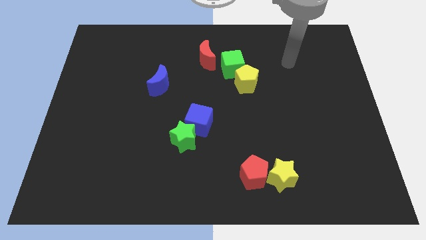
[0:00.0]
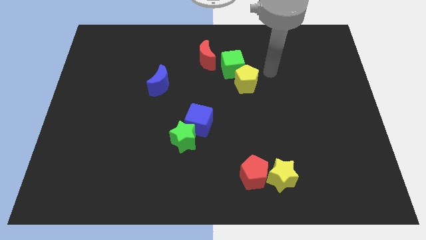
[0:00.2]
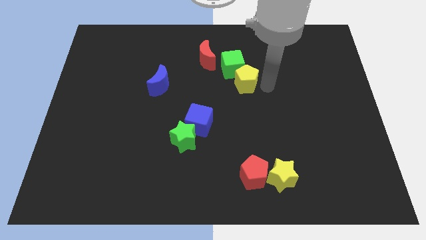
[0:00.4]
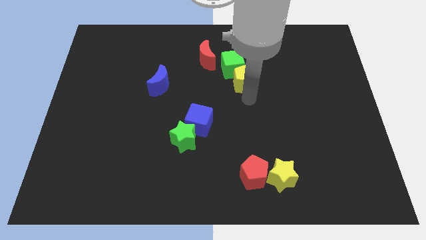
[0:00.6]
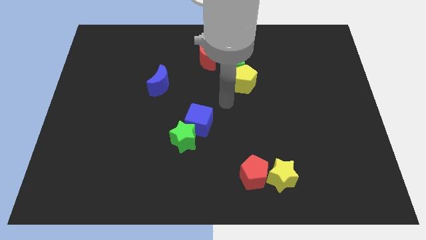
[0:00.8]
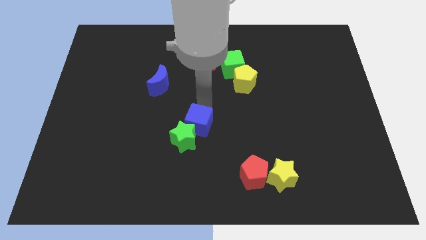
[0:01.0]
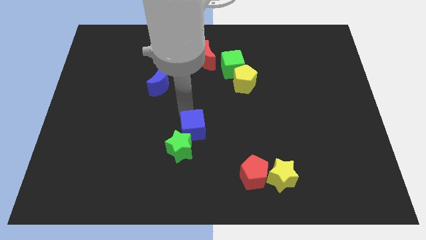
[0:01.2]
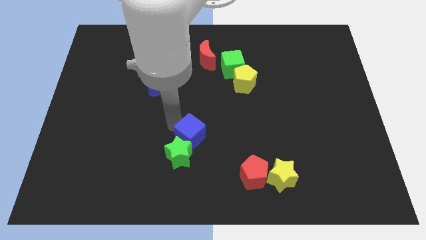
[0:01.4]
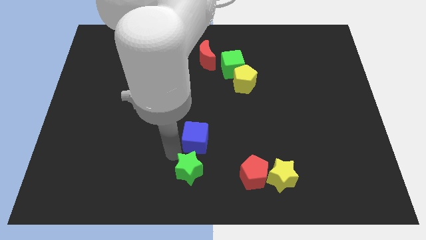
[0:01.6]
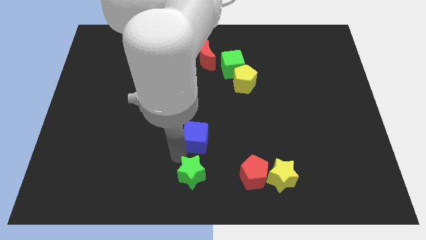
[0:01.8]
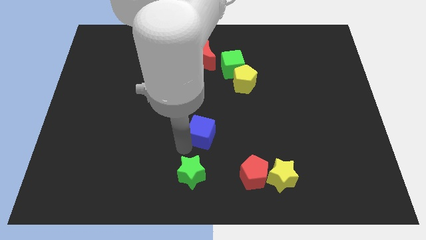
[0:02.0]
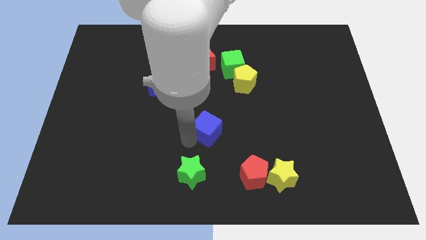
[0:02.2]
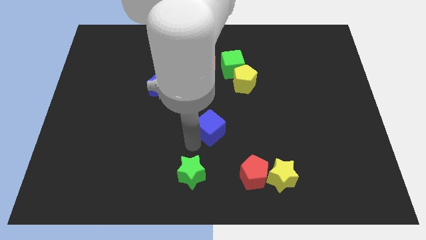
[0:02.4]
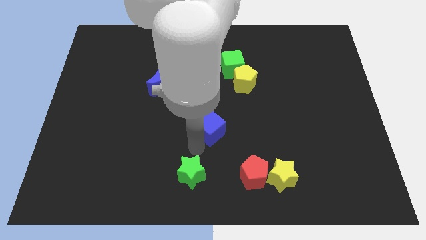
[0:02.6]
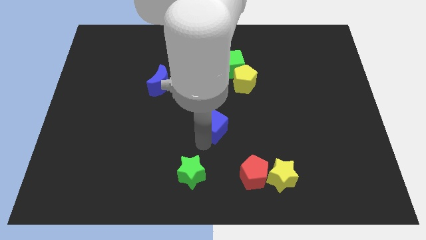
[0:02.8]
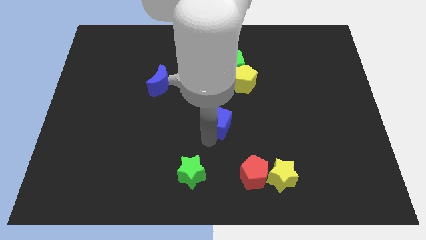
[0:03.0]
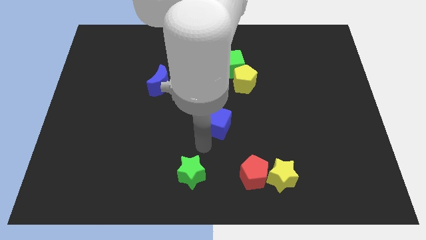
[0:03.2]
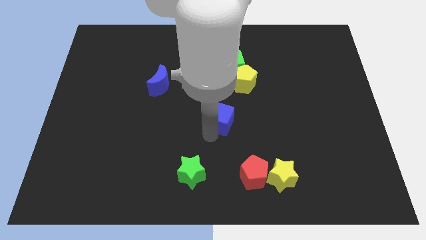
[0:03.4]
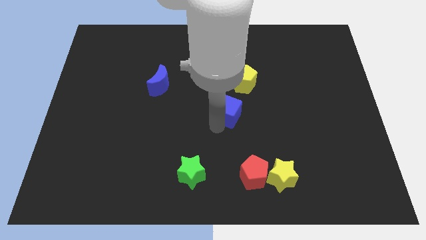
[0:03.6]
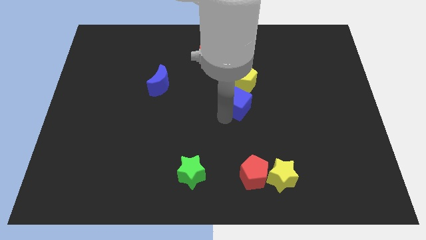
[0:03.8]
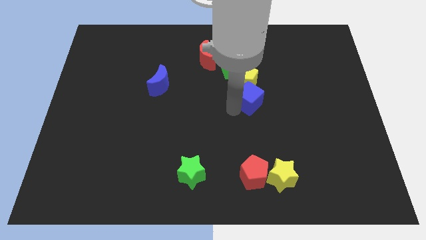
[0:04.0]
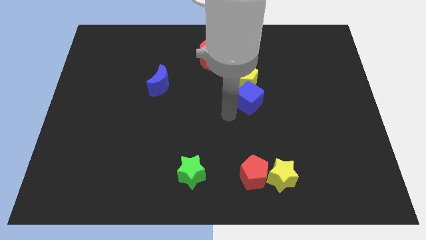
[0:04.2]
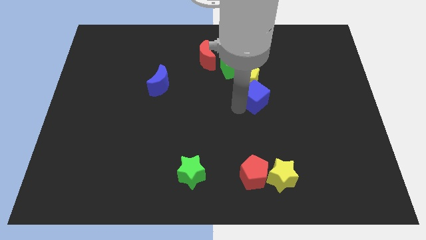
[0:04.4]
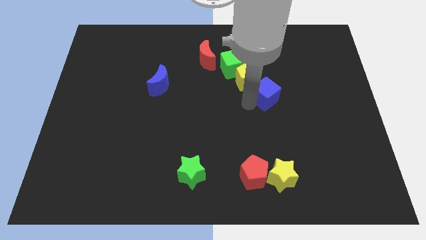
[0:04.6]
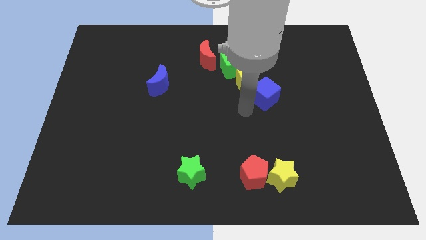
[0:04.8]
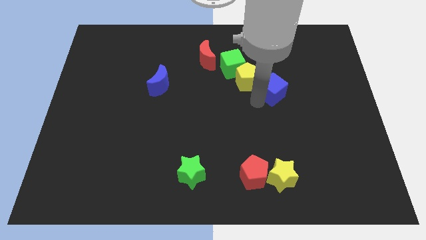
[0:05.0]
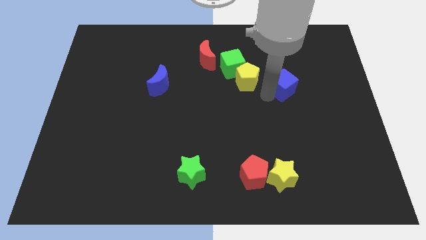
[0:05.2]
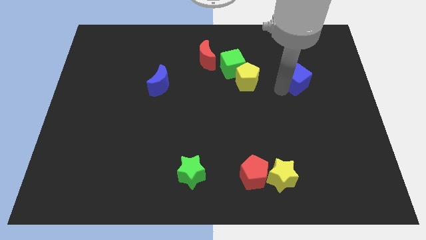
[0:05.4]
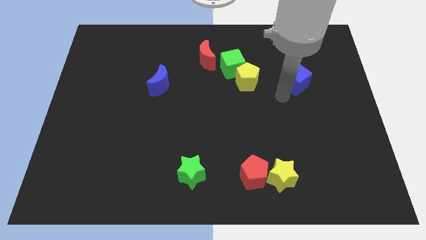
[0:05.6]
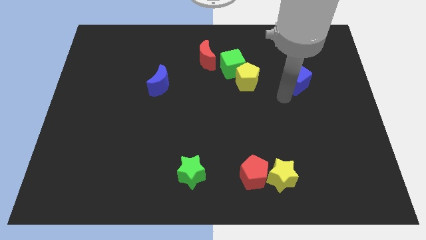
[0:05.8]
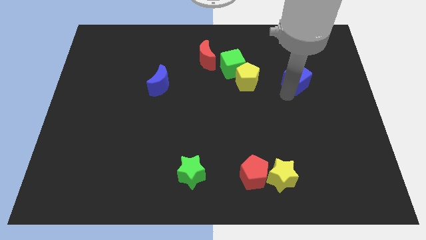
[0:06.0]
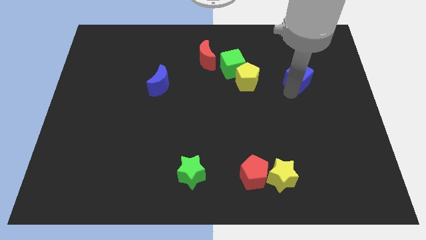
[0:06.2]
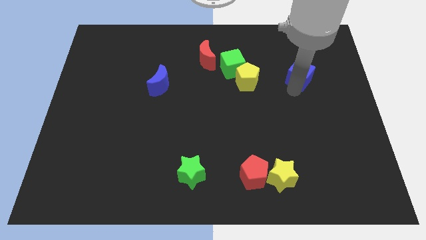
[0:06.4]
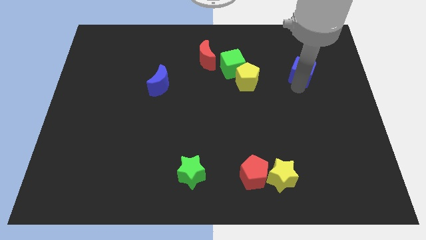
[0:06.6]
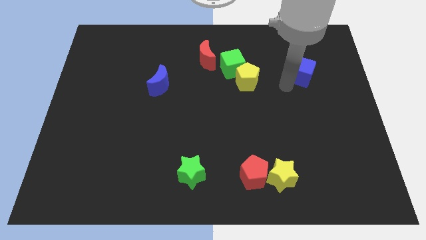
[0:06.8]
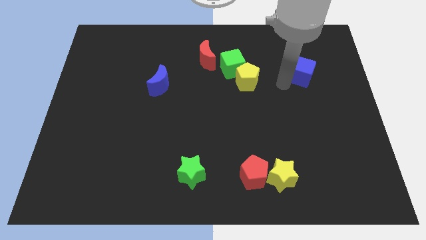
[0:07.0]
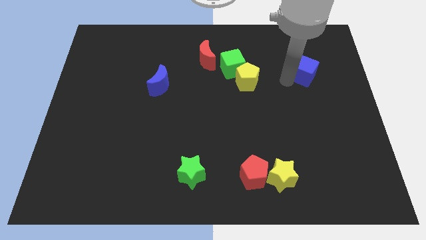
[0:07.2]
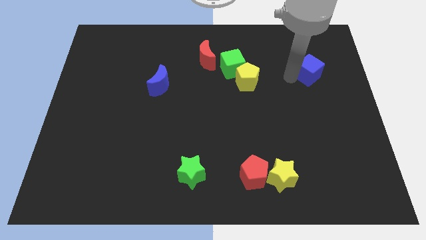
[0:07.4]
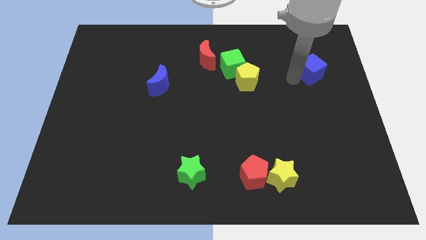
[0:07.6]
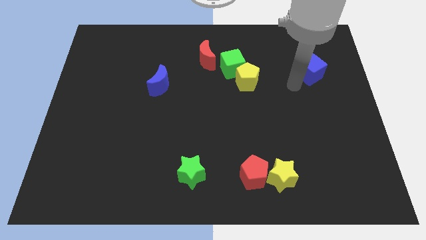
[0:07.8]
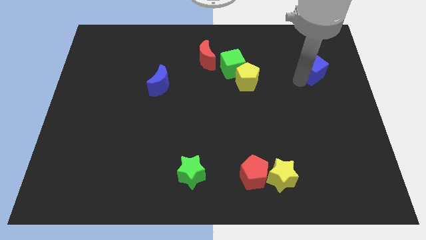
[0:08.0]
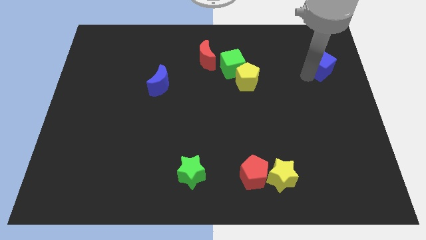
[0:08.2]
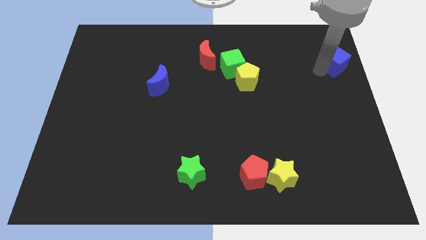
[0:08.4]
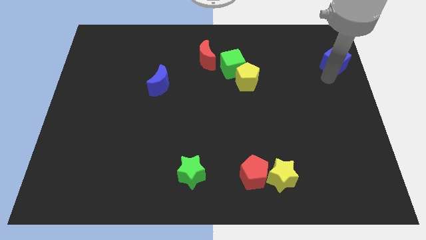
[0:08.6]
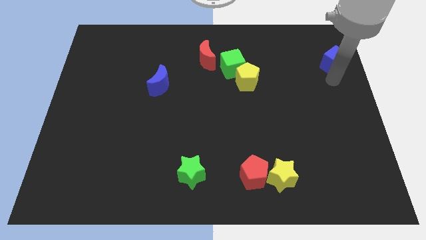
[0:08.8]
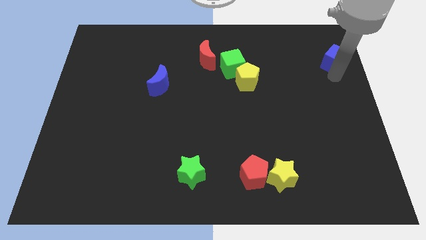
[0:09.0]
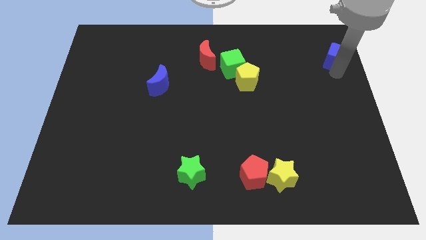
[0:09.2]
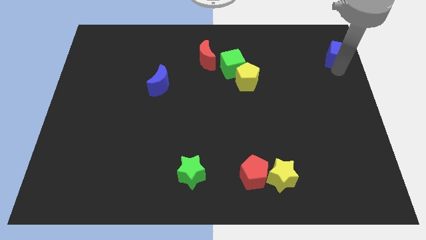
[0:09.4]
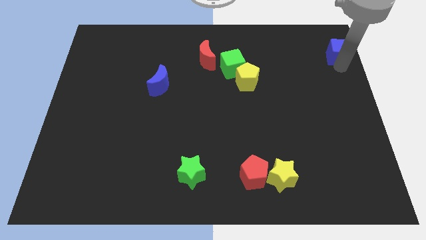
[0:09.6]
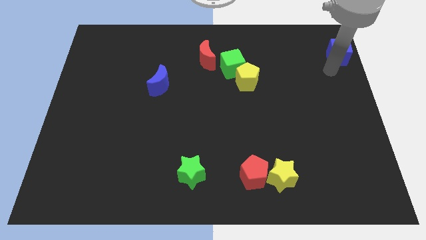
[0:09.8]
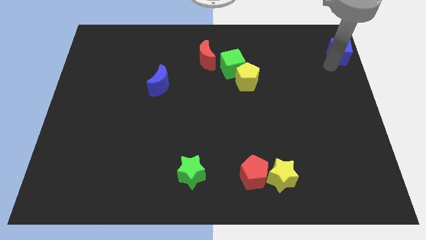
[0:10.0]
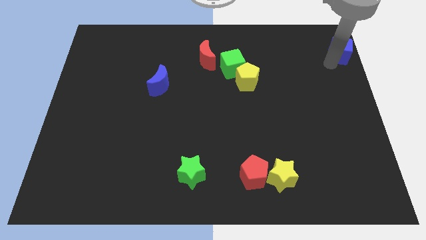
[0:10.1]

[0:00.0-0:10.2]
put the blue cube to the top right

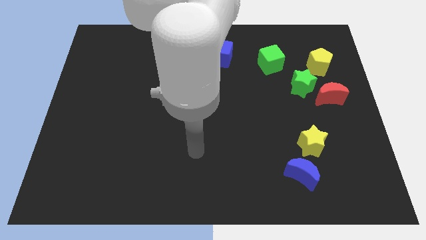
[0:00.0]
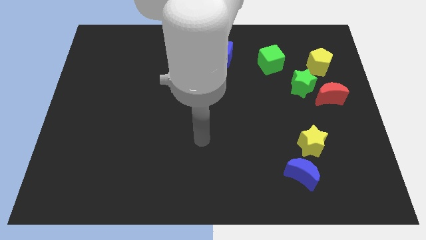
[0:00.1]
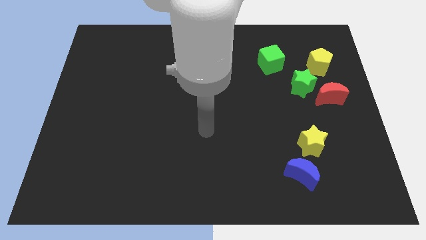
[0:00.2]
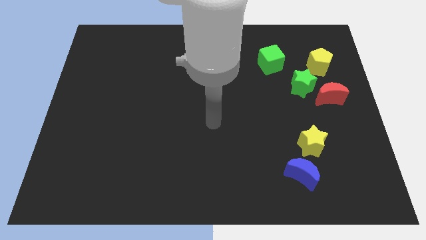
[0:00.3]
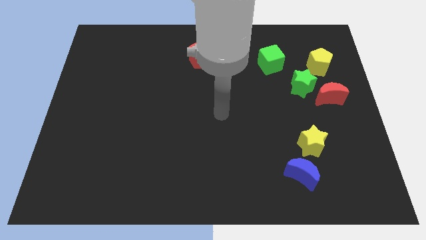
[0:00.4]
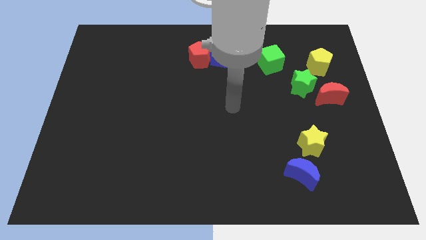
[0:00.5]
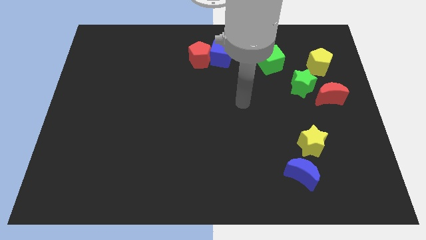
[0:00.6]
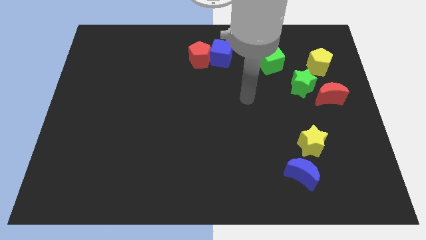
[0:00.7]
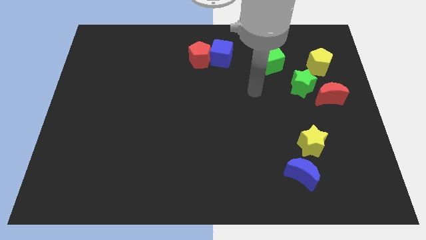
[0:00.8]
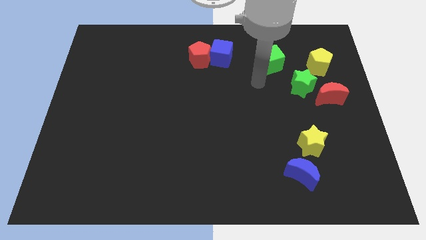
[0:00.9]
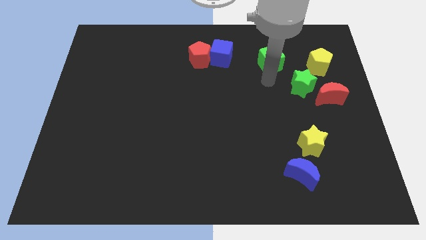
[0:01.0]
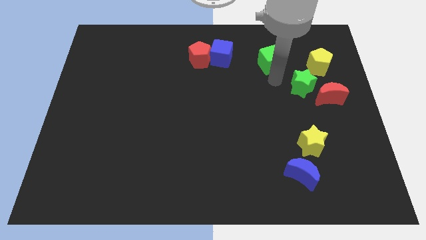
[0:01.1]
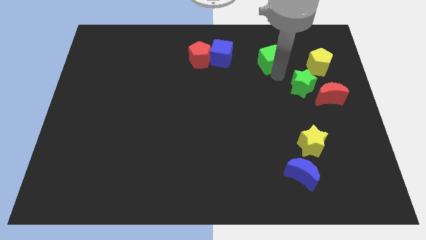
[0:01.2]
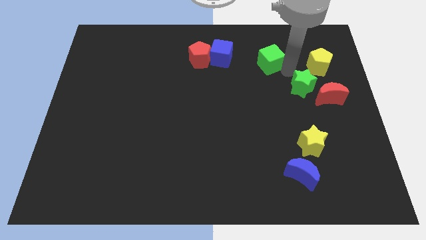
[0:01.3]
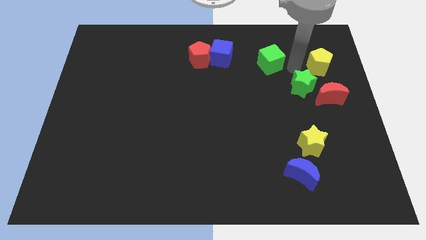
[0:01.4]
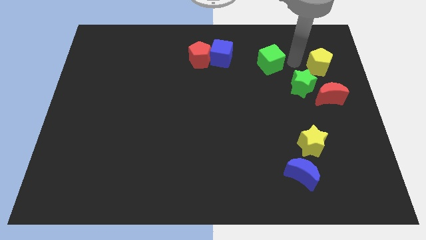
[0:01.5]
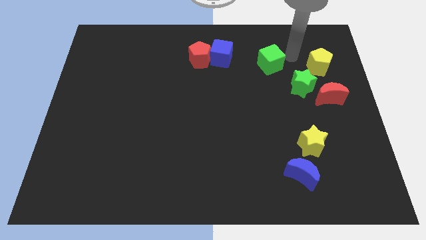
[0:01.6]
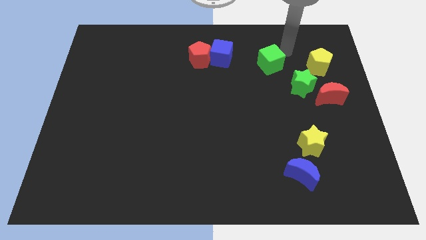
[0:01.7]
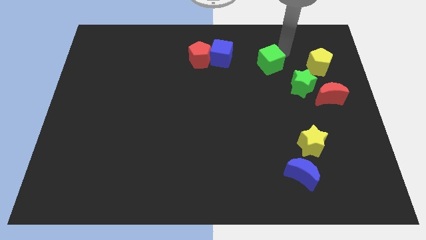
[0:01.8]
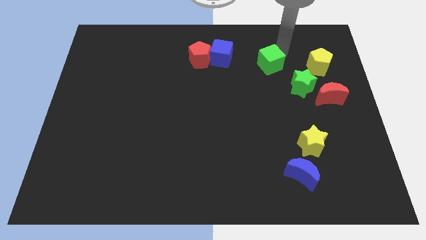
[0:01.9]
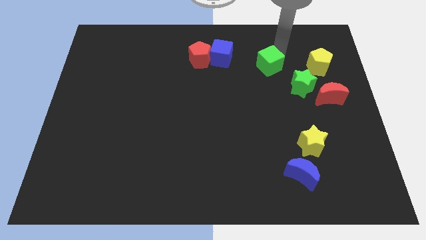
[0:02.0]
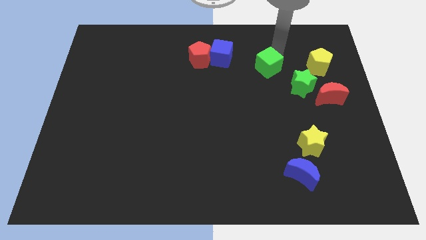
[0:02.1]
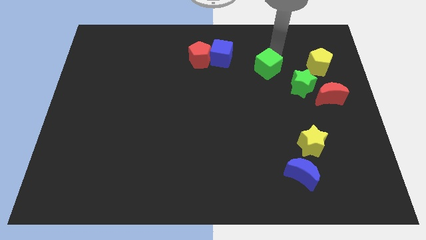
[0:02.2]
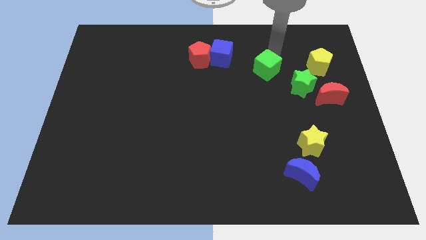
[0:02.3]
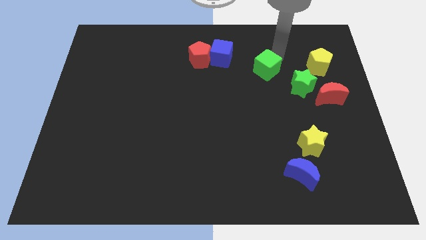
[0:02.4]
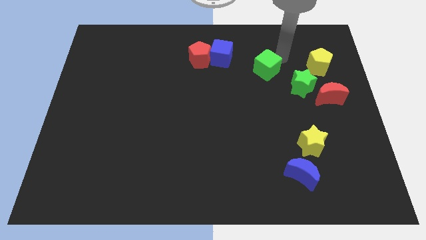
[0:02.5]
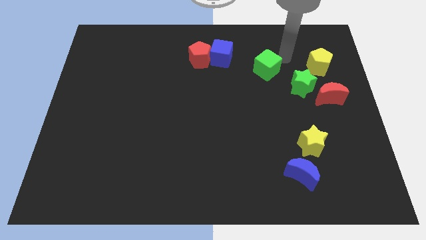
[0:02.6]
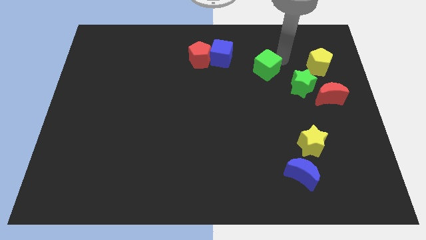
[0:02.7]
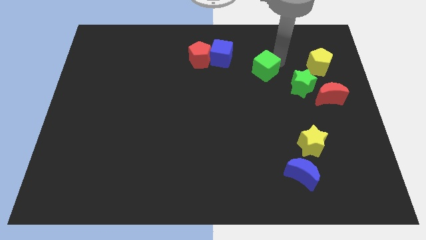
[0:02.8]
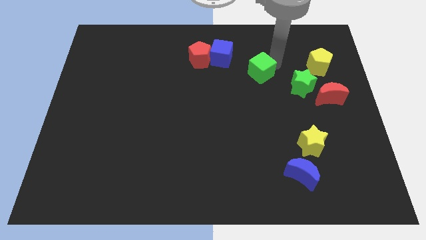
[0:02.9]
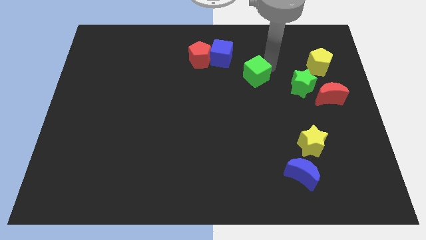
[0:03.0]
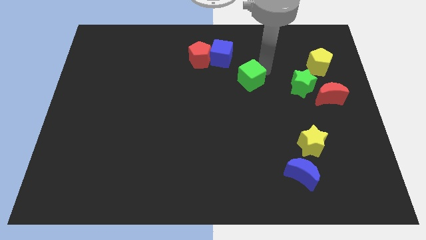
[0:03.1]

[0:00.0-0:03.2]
push the green cube to the center
